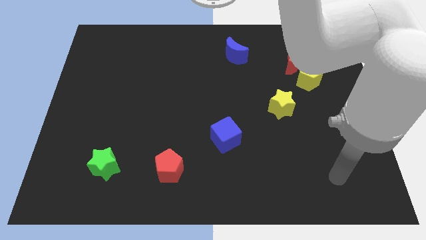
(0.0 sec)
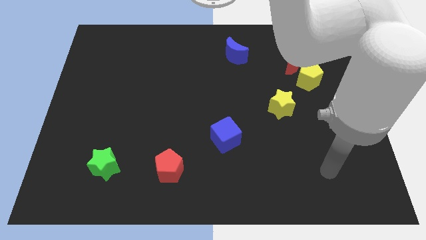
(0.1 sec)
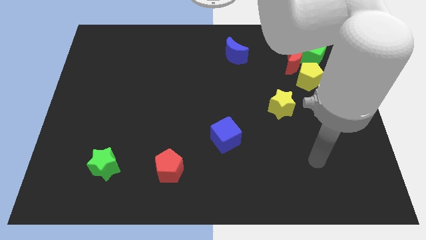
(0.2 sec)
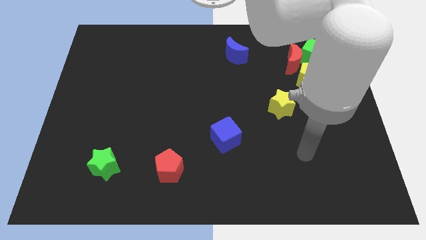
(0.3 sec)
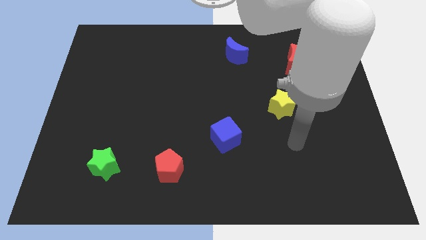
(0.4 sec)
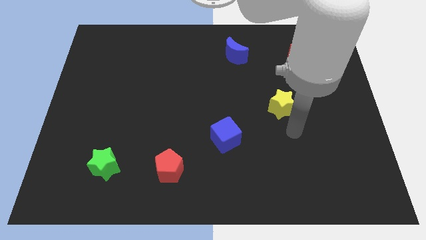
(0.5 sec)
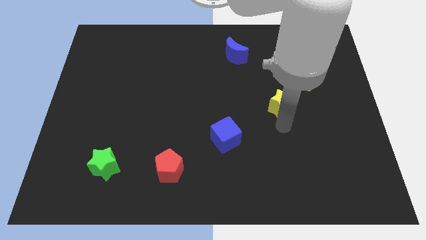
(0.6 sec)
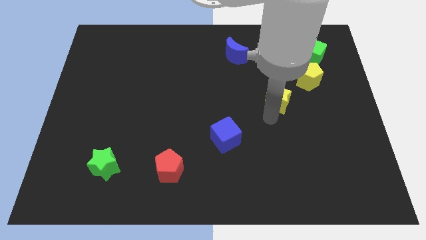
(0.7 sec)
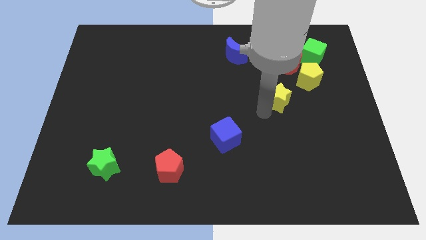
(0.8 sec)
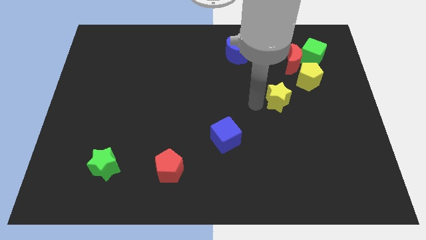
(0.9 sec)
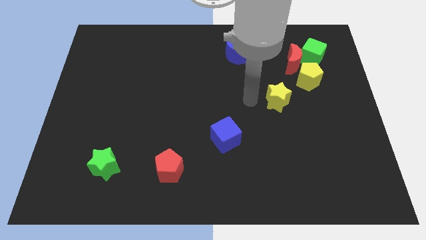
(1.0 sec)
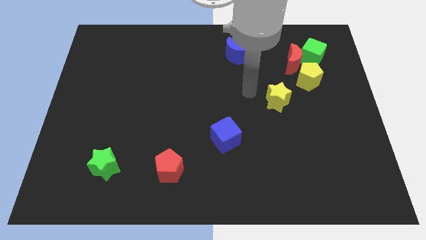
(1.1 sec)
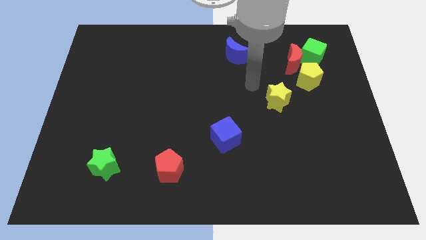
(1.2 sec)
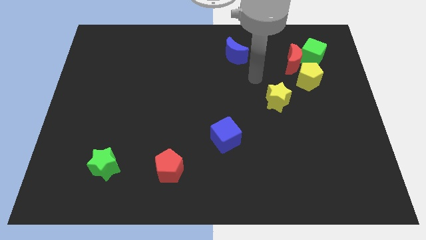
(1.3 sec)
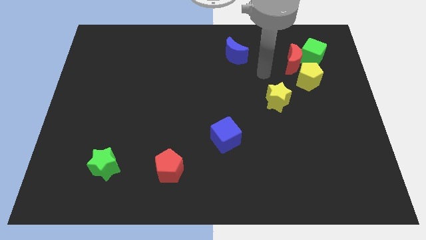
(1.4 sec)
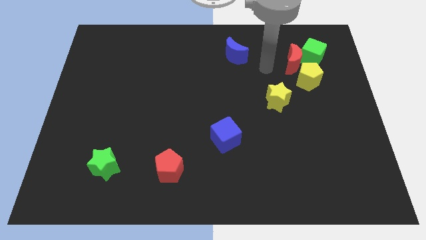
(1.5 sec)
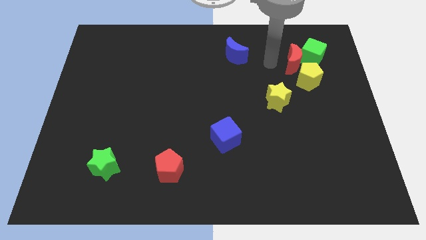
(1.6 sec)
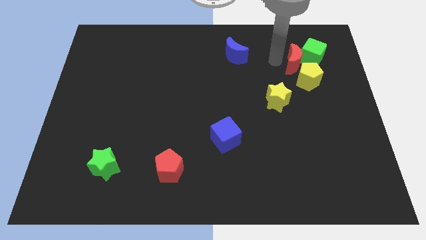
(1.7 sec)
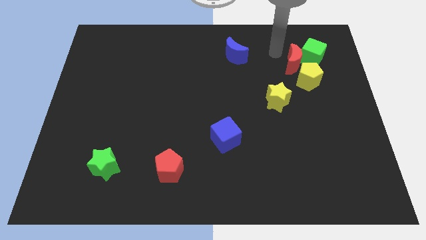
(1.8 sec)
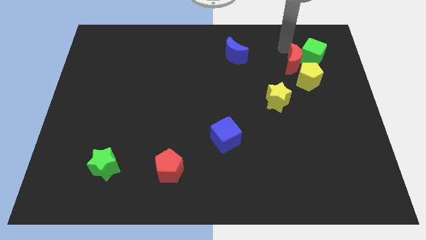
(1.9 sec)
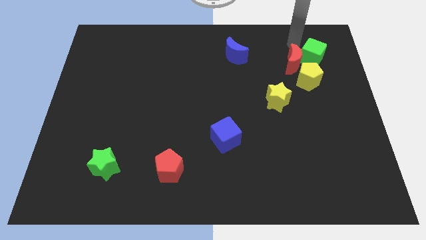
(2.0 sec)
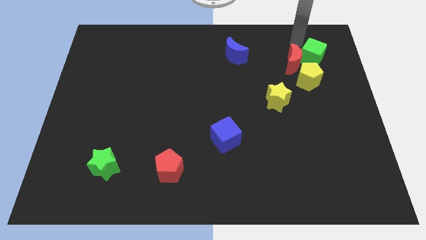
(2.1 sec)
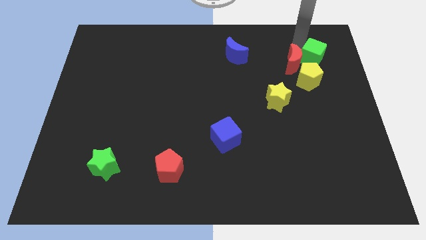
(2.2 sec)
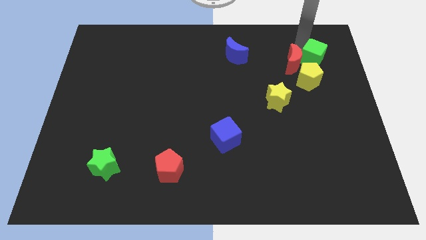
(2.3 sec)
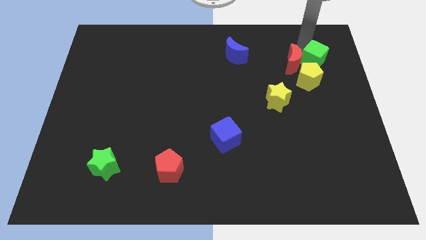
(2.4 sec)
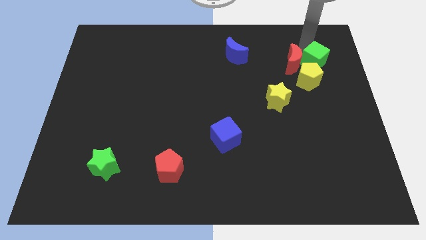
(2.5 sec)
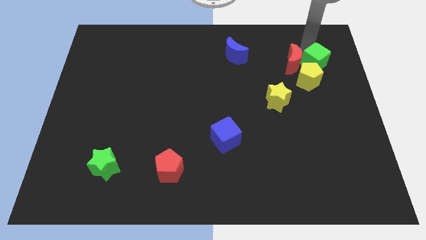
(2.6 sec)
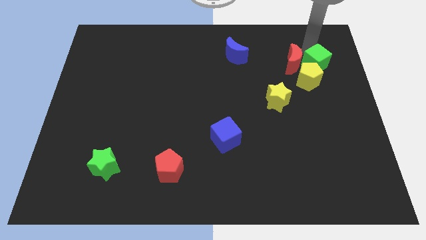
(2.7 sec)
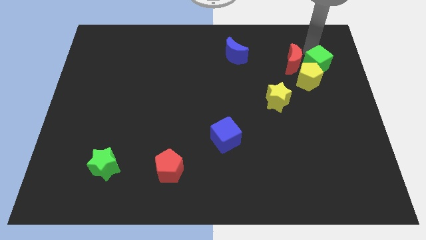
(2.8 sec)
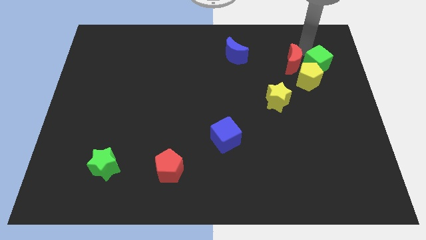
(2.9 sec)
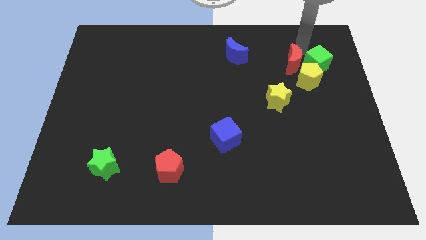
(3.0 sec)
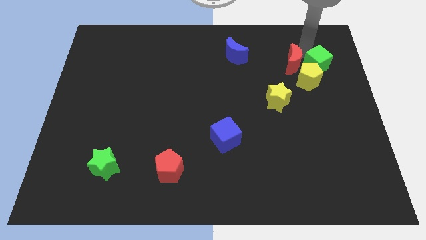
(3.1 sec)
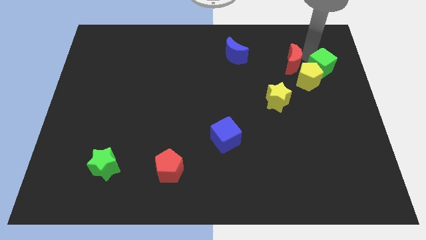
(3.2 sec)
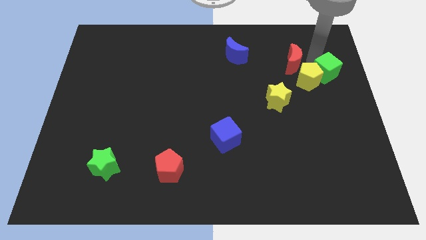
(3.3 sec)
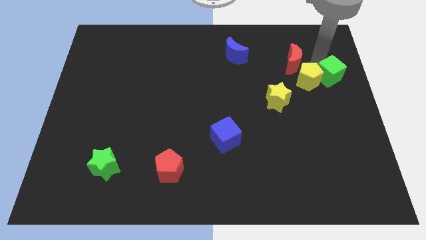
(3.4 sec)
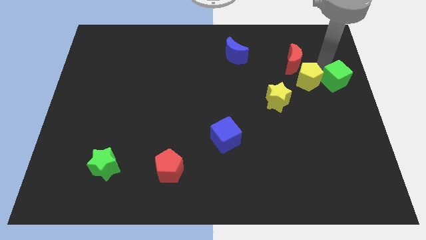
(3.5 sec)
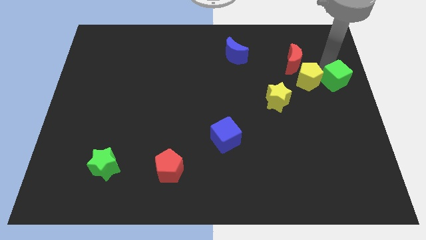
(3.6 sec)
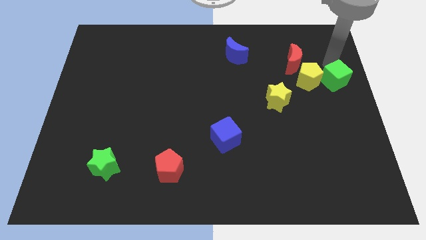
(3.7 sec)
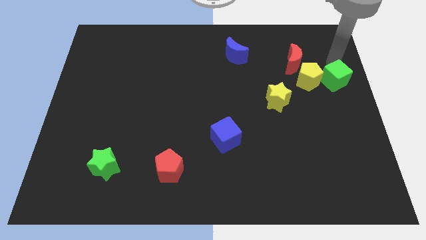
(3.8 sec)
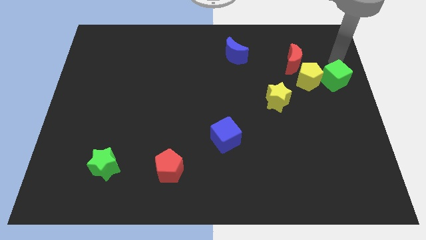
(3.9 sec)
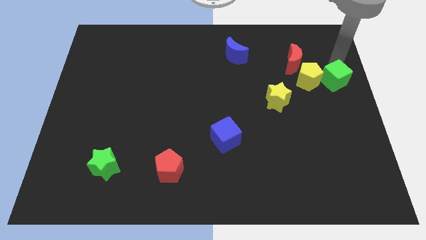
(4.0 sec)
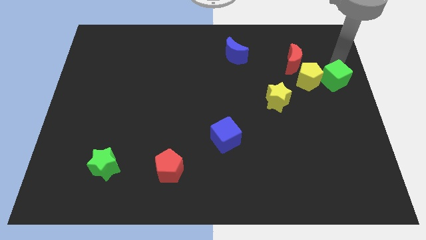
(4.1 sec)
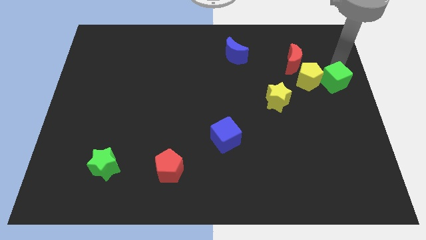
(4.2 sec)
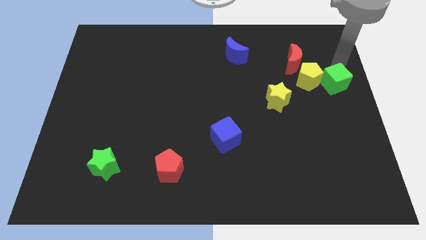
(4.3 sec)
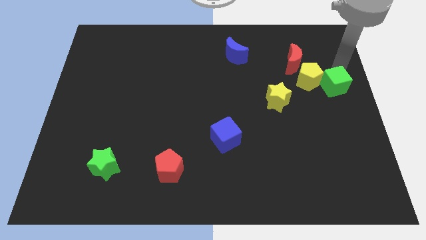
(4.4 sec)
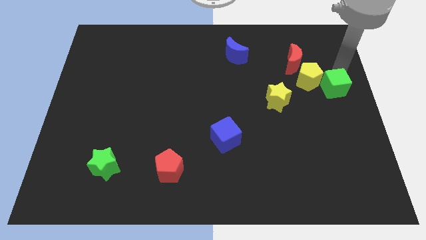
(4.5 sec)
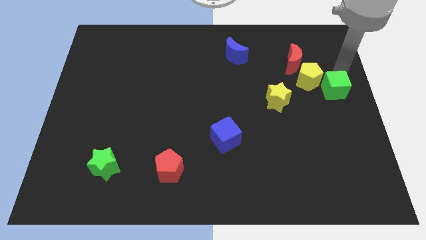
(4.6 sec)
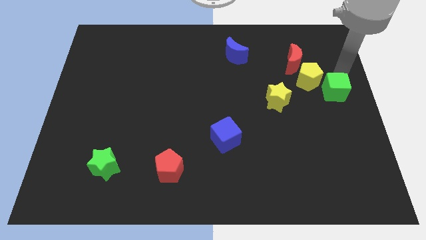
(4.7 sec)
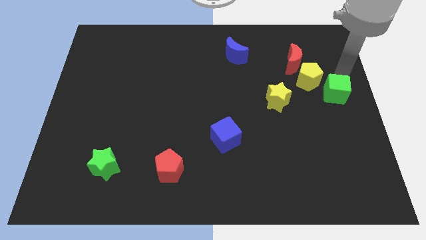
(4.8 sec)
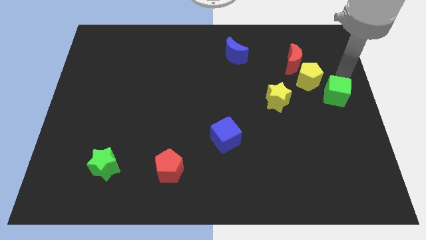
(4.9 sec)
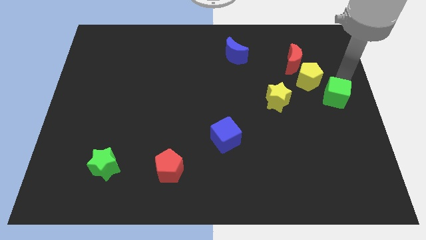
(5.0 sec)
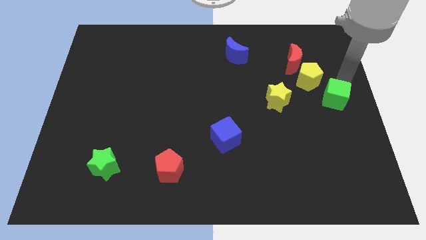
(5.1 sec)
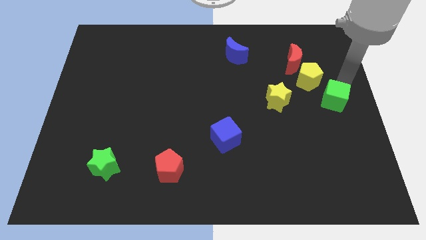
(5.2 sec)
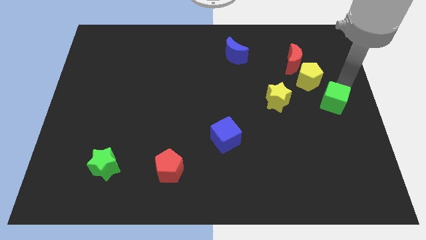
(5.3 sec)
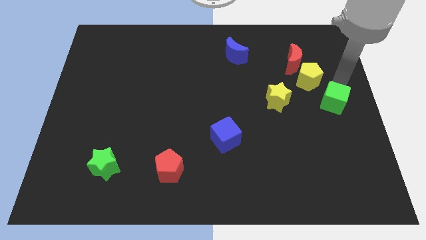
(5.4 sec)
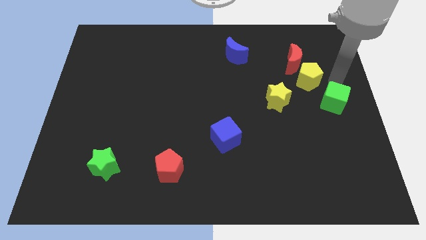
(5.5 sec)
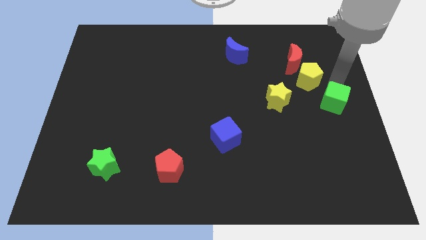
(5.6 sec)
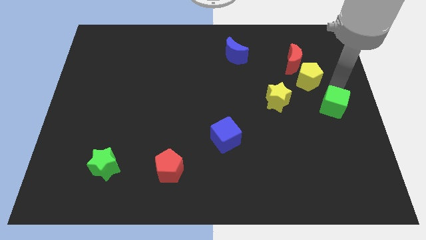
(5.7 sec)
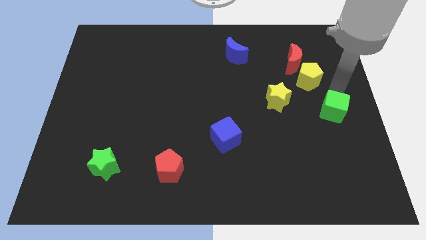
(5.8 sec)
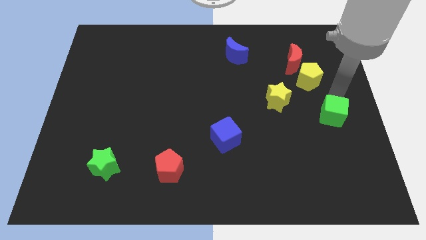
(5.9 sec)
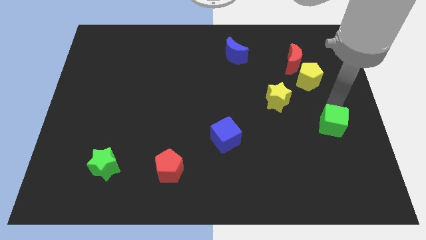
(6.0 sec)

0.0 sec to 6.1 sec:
move the green cube downwards

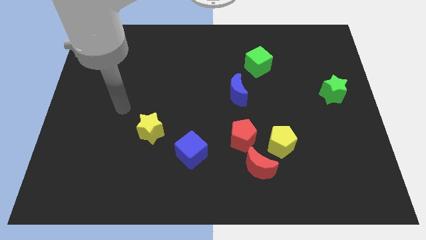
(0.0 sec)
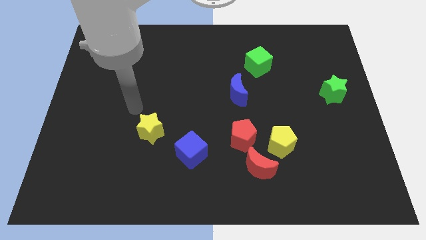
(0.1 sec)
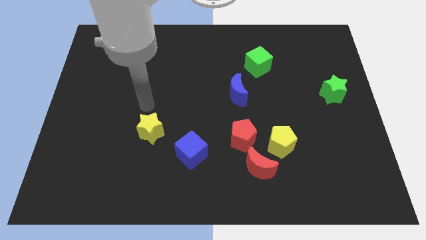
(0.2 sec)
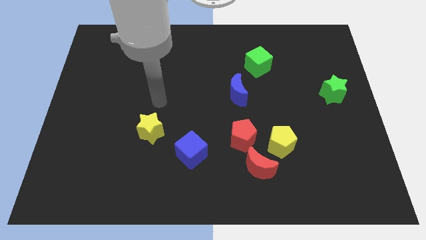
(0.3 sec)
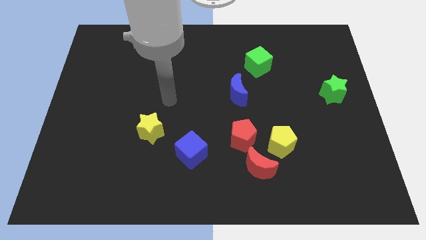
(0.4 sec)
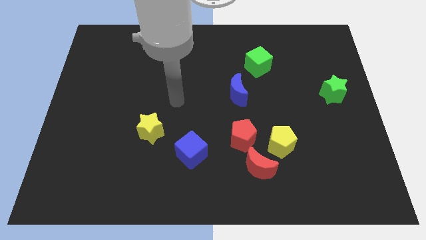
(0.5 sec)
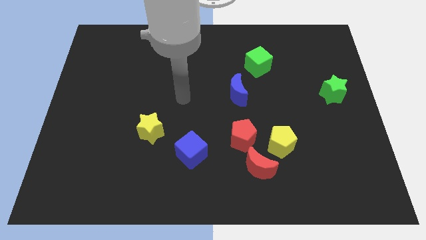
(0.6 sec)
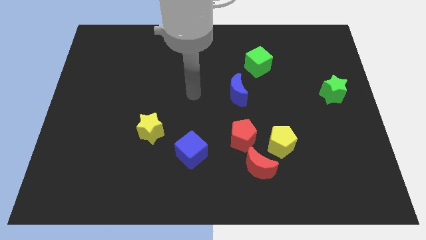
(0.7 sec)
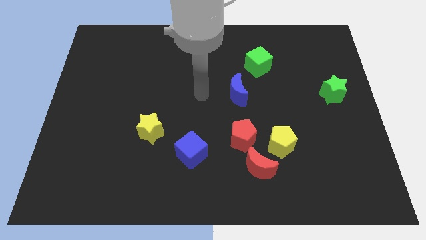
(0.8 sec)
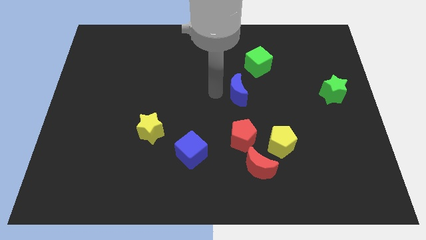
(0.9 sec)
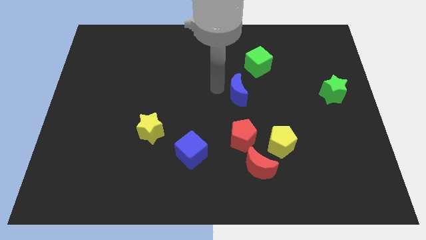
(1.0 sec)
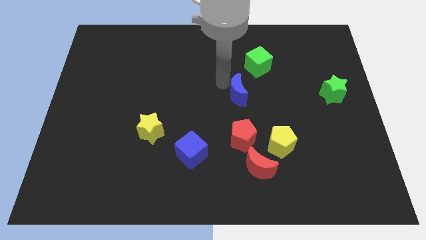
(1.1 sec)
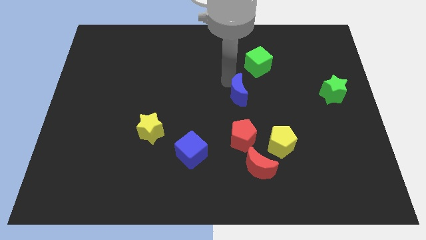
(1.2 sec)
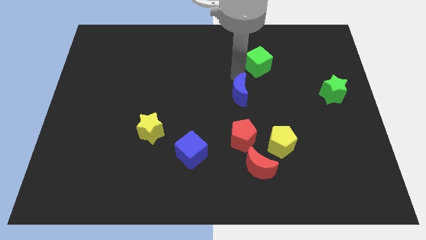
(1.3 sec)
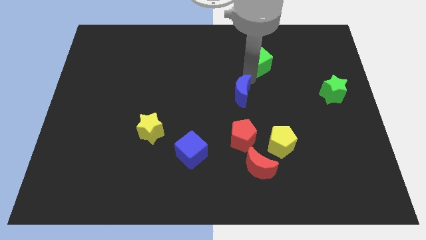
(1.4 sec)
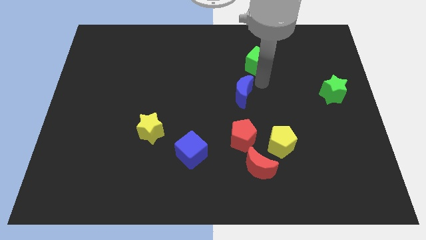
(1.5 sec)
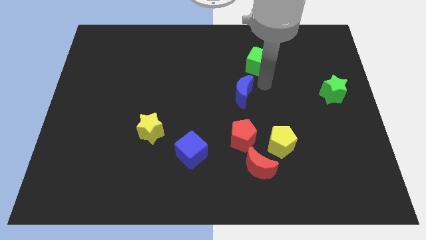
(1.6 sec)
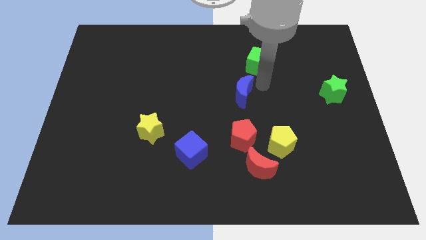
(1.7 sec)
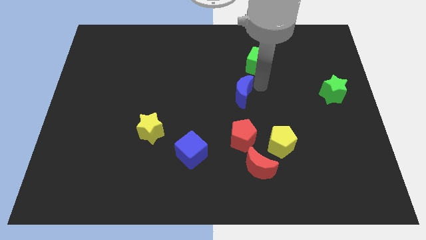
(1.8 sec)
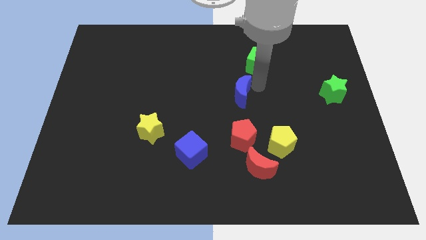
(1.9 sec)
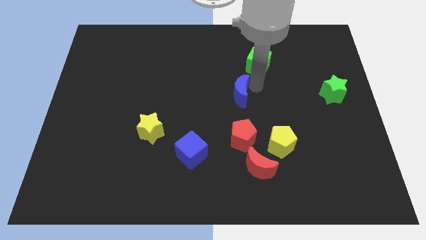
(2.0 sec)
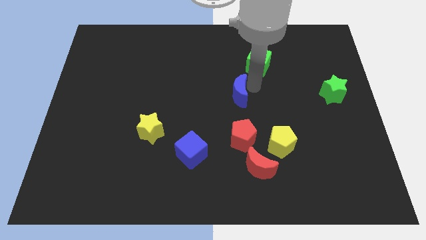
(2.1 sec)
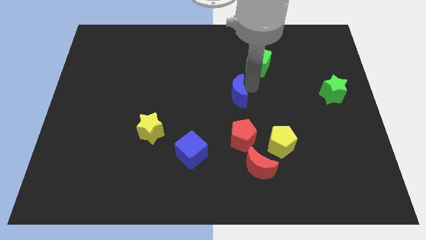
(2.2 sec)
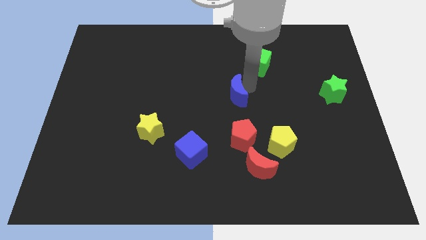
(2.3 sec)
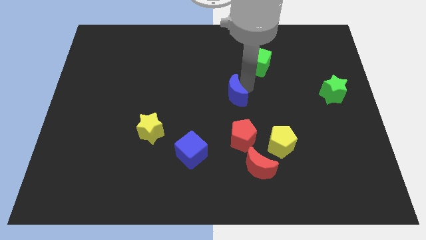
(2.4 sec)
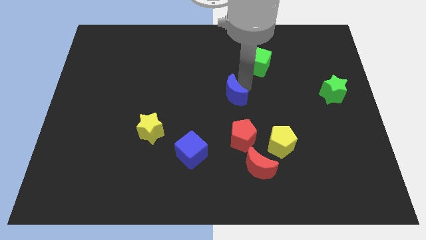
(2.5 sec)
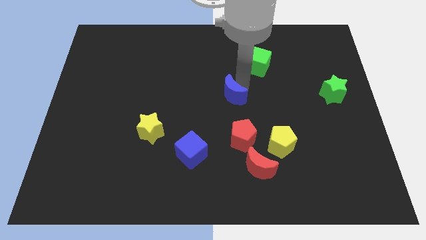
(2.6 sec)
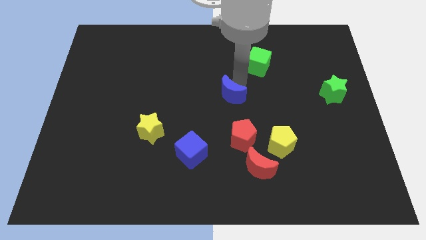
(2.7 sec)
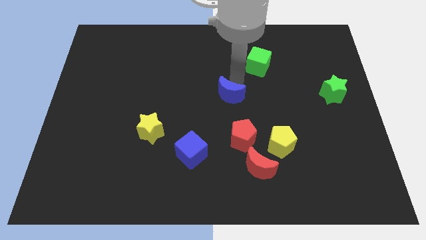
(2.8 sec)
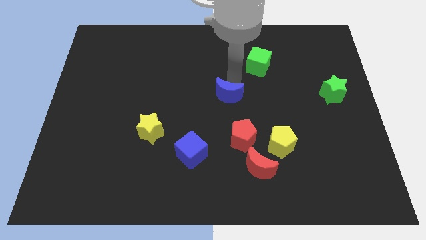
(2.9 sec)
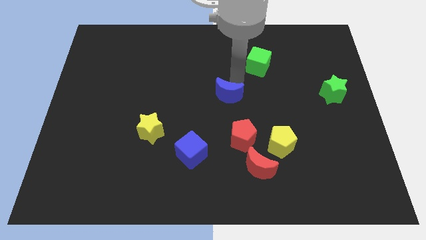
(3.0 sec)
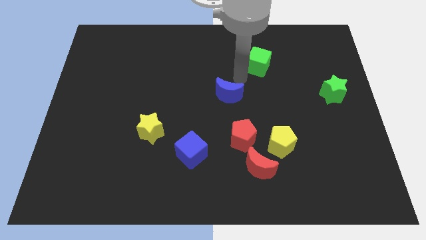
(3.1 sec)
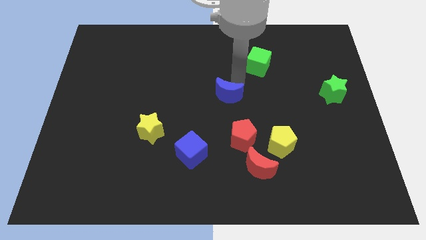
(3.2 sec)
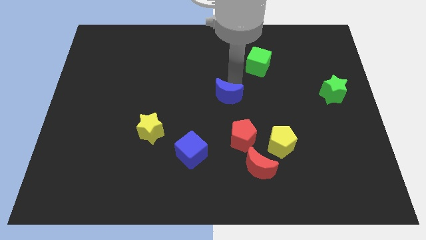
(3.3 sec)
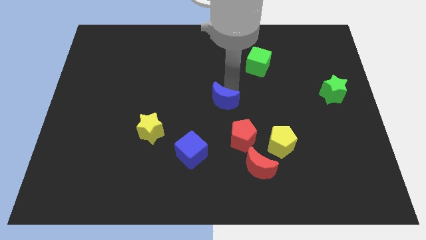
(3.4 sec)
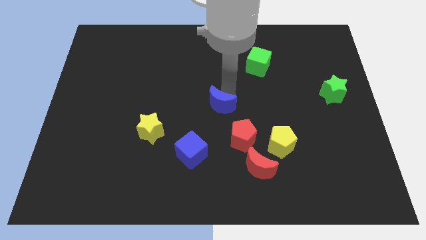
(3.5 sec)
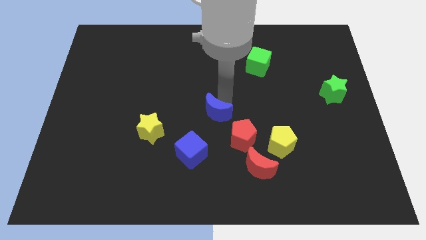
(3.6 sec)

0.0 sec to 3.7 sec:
move the blue moon diagonally down and left somewhat
